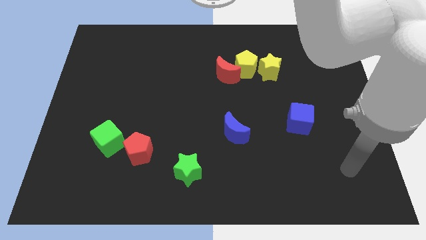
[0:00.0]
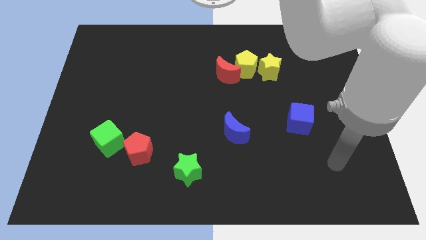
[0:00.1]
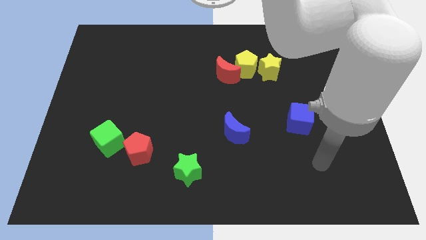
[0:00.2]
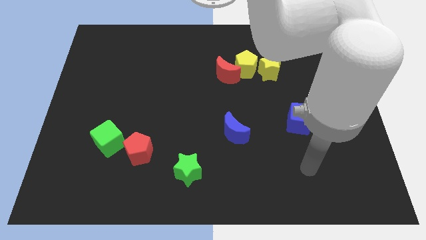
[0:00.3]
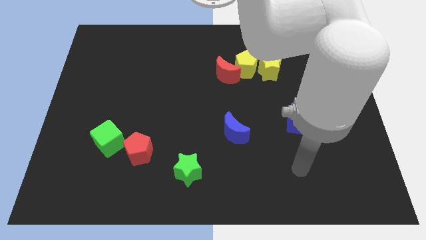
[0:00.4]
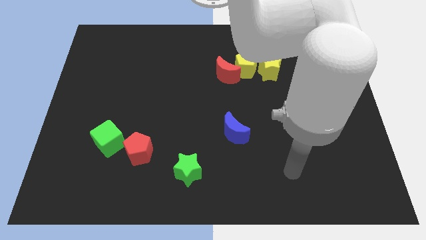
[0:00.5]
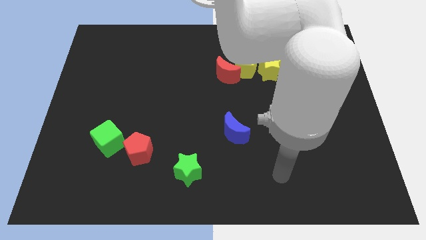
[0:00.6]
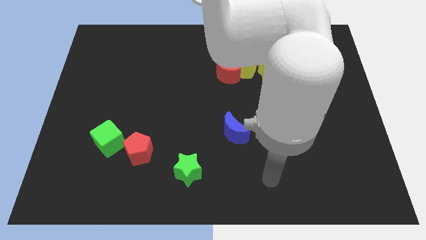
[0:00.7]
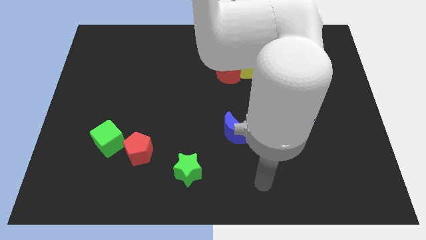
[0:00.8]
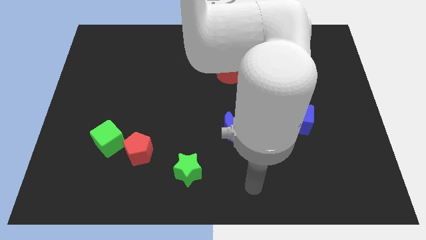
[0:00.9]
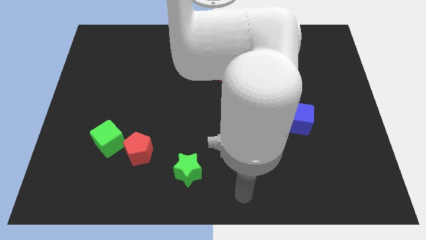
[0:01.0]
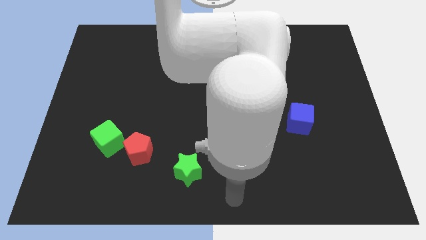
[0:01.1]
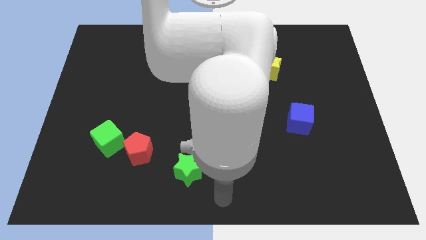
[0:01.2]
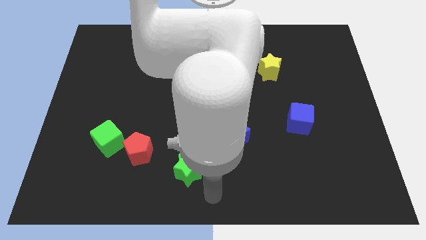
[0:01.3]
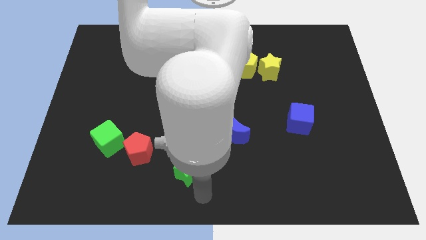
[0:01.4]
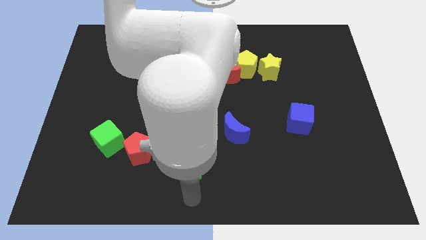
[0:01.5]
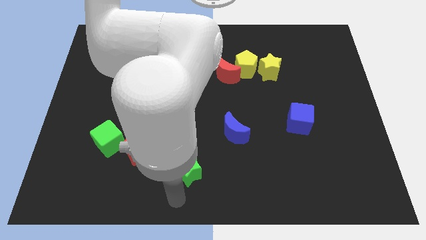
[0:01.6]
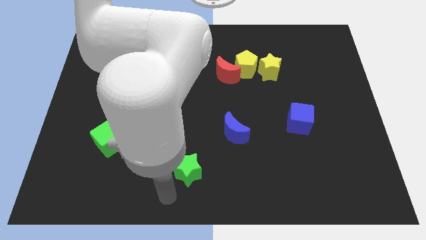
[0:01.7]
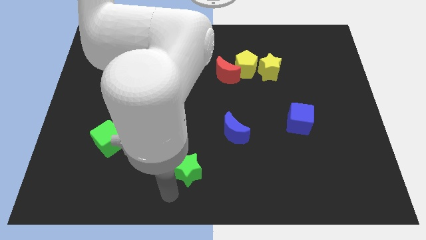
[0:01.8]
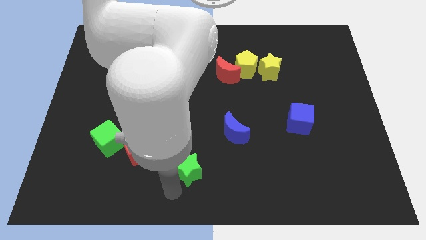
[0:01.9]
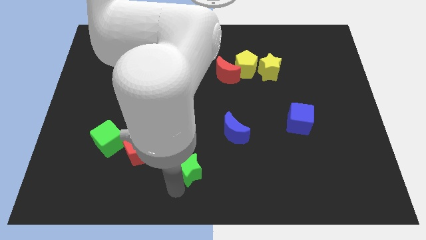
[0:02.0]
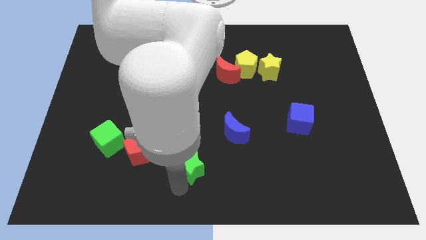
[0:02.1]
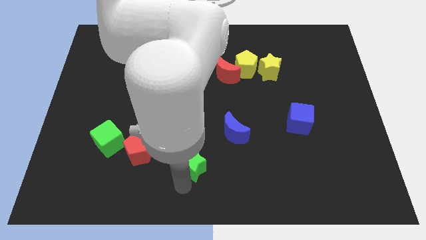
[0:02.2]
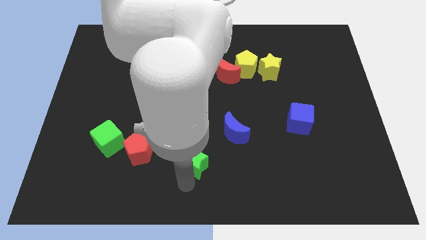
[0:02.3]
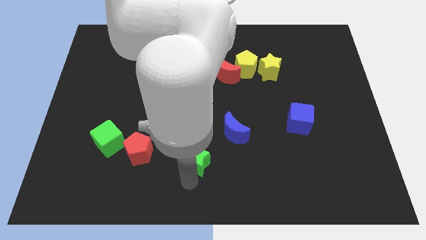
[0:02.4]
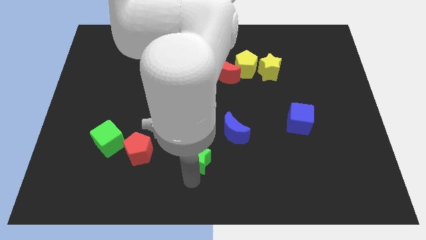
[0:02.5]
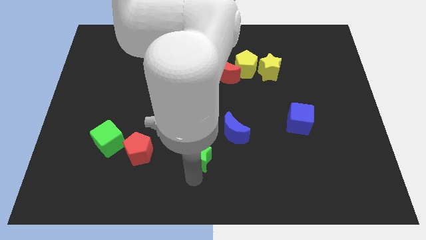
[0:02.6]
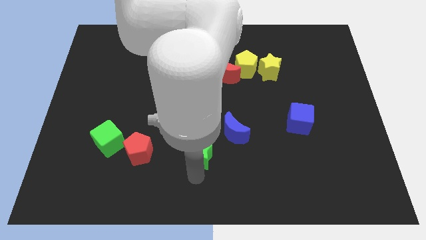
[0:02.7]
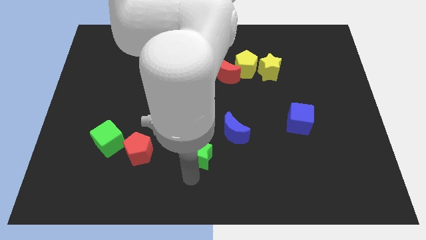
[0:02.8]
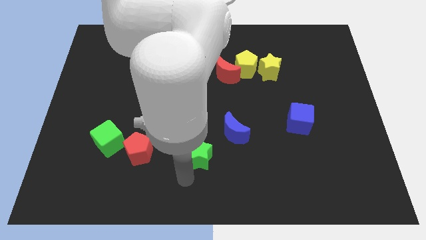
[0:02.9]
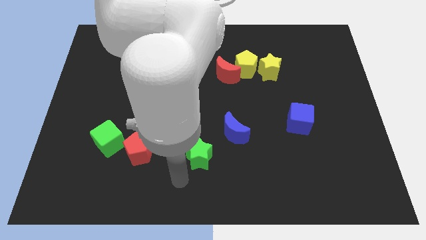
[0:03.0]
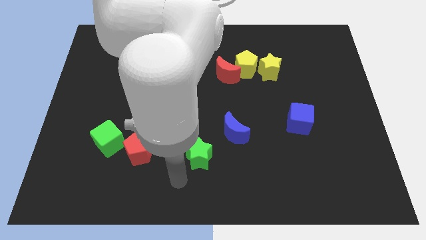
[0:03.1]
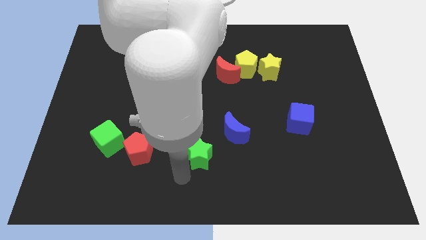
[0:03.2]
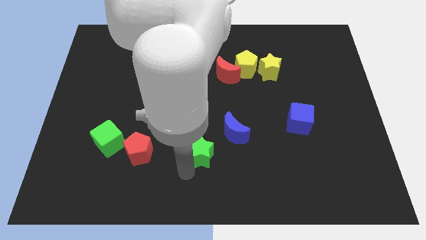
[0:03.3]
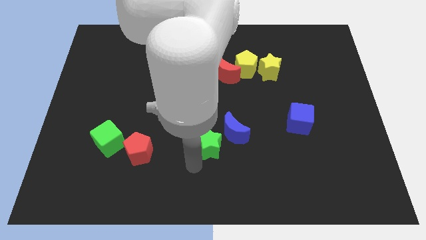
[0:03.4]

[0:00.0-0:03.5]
slightly move the green star up and to the right

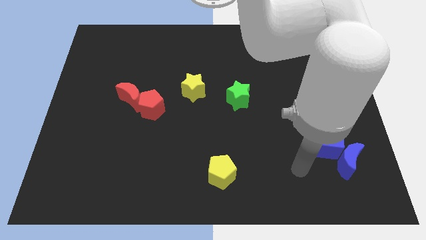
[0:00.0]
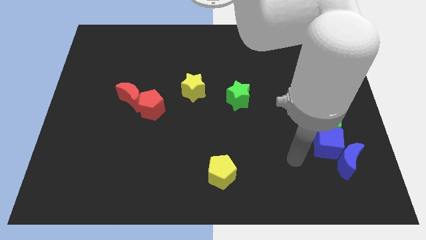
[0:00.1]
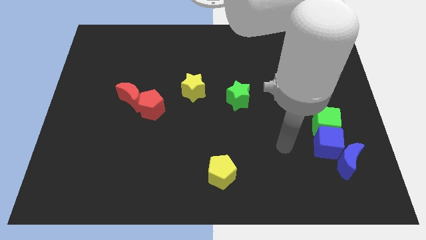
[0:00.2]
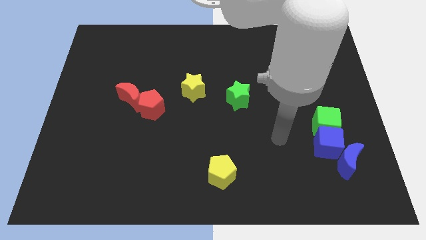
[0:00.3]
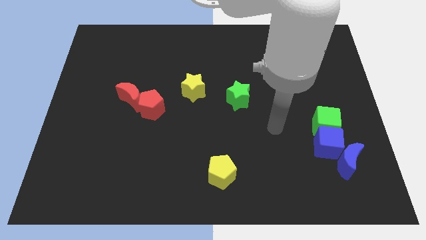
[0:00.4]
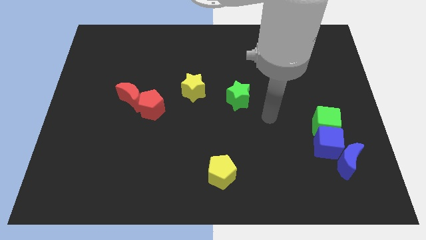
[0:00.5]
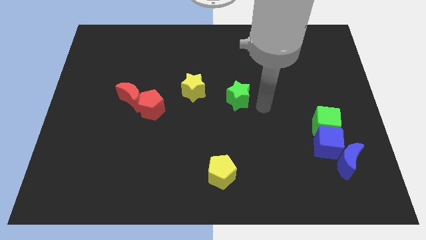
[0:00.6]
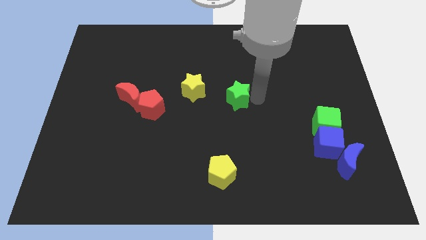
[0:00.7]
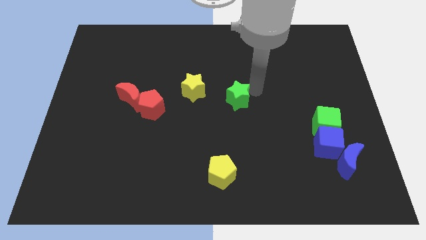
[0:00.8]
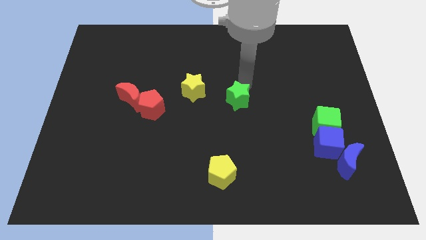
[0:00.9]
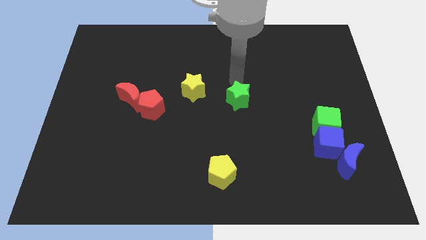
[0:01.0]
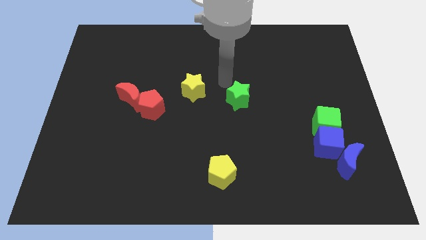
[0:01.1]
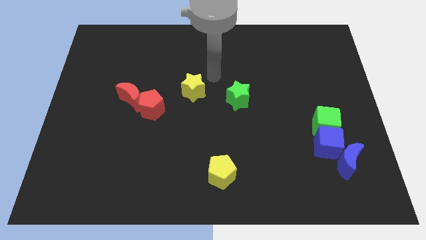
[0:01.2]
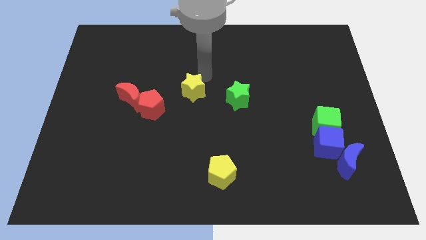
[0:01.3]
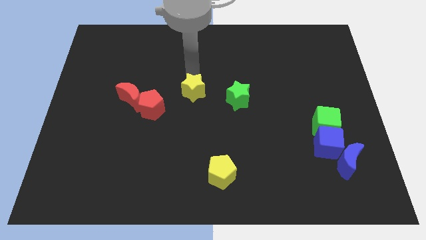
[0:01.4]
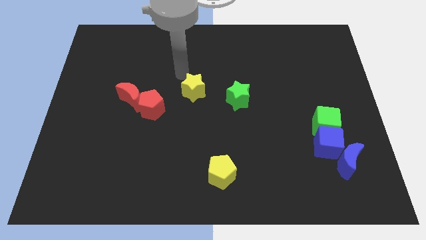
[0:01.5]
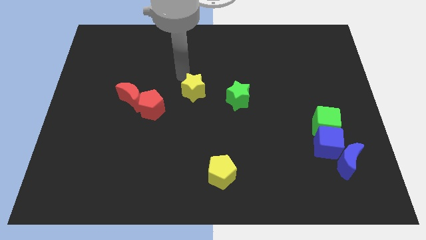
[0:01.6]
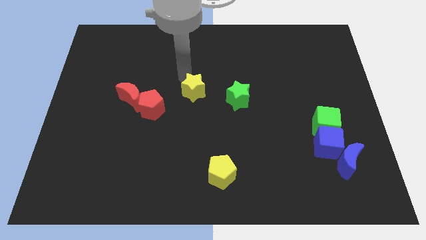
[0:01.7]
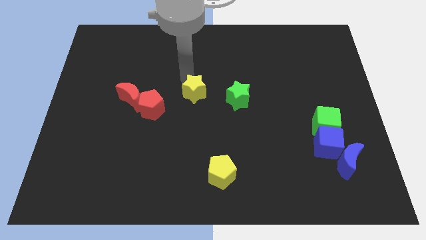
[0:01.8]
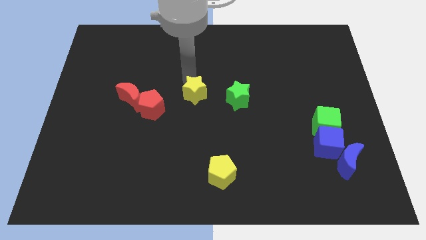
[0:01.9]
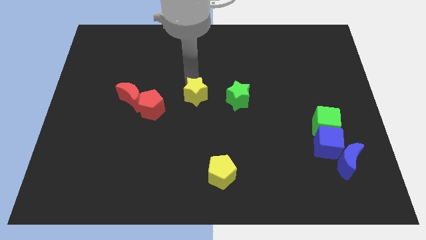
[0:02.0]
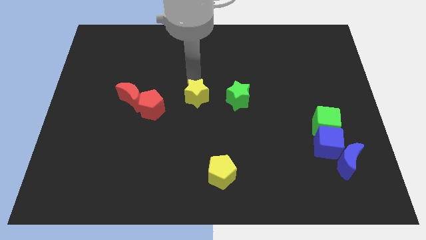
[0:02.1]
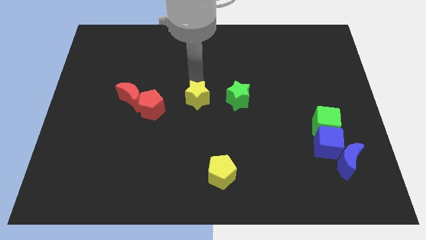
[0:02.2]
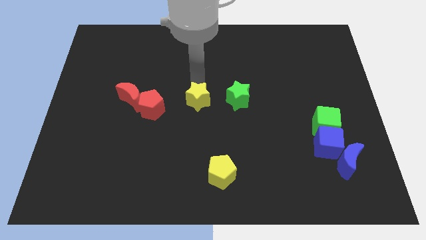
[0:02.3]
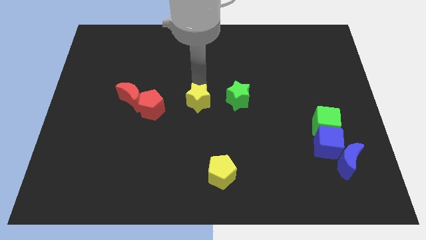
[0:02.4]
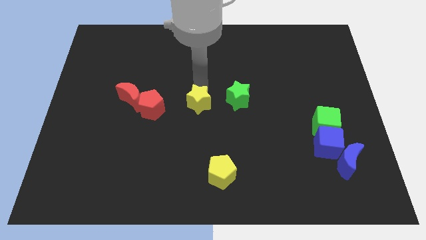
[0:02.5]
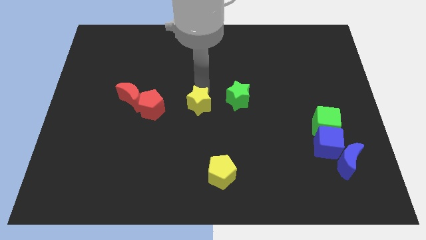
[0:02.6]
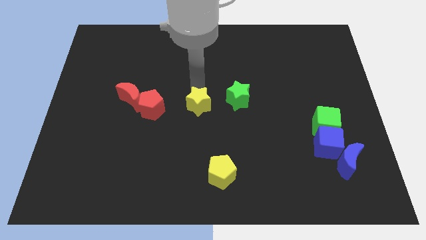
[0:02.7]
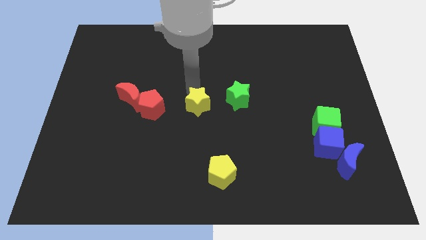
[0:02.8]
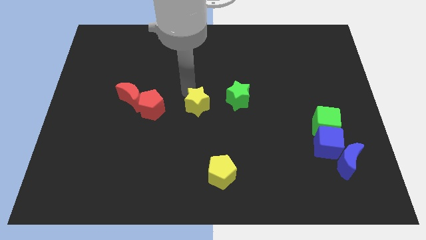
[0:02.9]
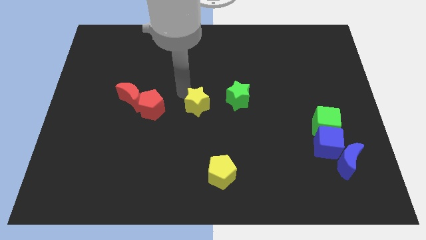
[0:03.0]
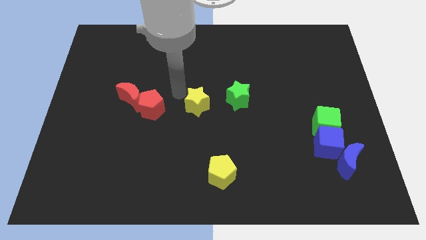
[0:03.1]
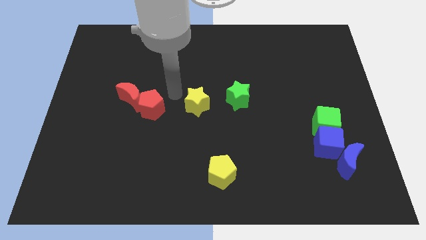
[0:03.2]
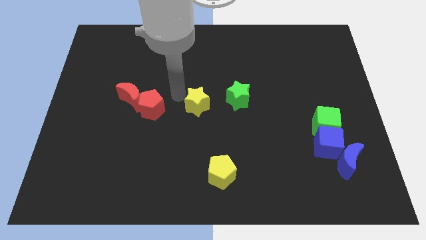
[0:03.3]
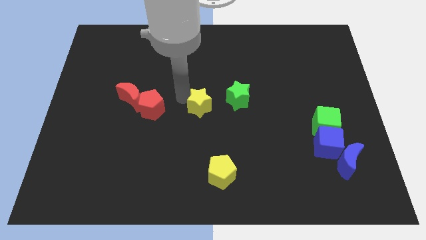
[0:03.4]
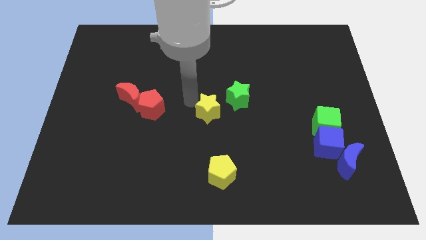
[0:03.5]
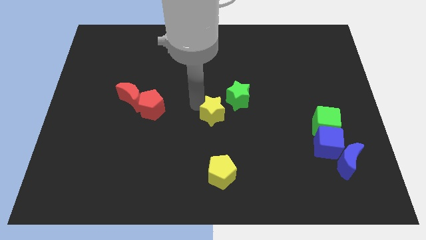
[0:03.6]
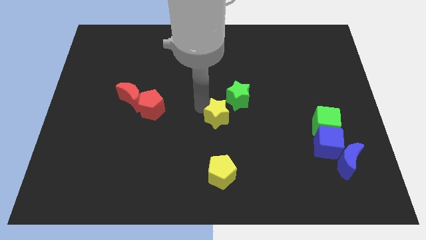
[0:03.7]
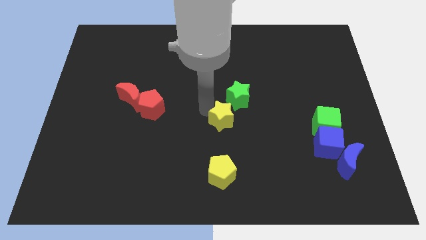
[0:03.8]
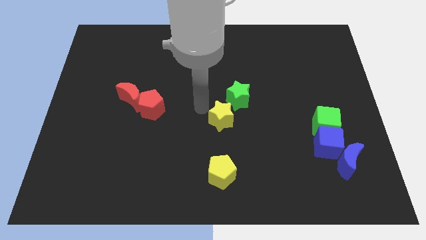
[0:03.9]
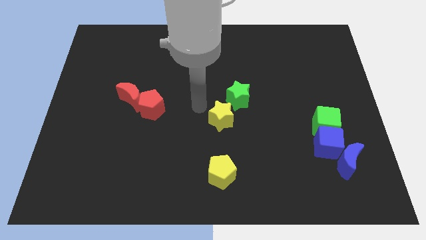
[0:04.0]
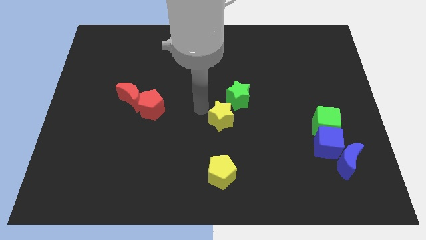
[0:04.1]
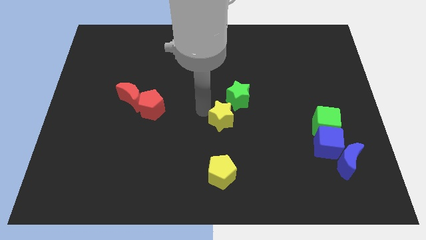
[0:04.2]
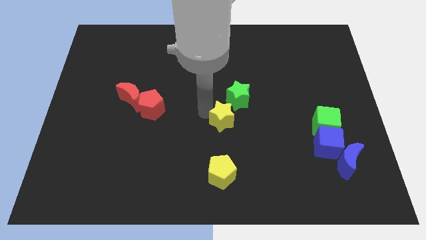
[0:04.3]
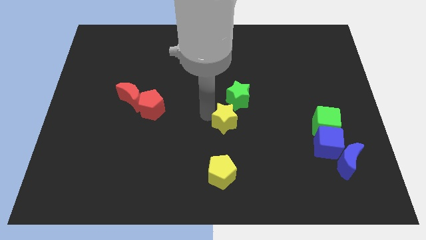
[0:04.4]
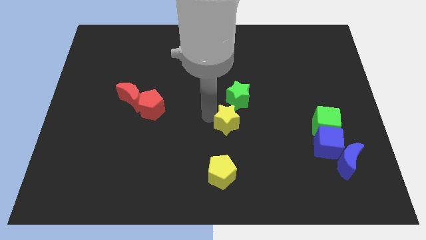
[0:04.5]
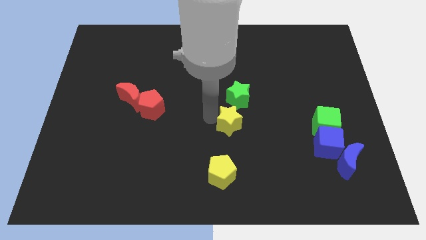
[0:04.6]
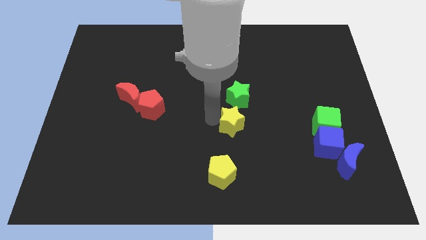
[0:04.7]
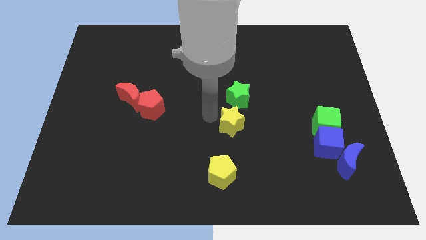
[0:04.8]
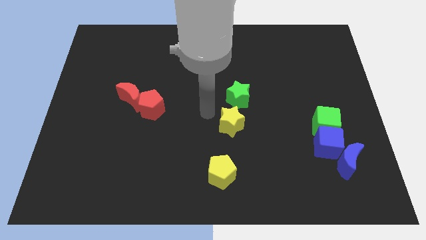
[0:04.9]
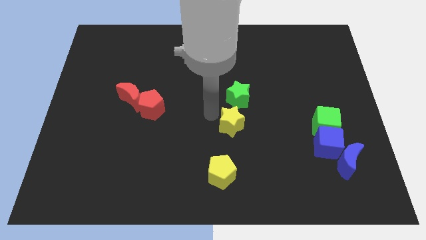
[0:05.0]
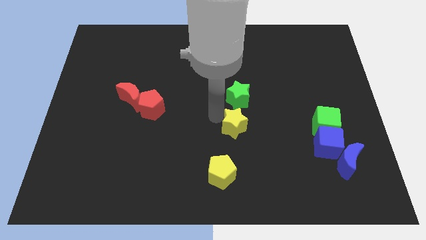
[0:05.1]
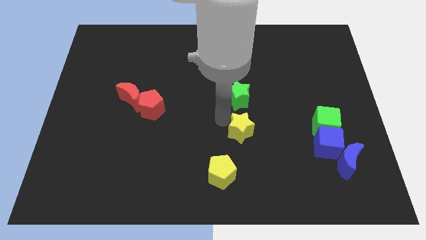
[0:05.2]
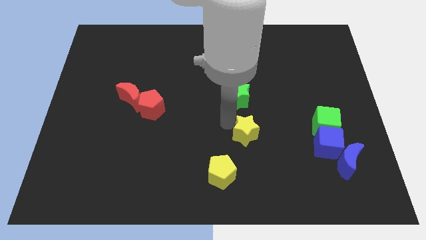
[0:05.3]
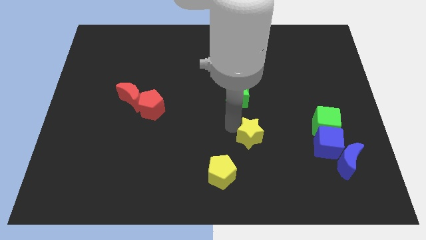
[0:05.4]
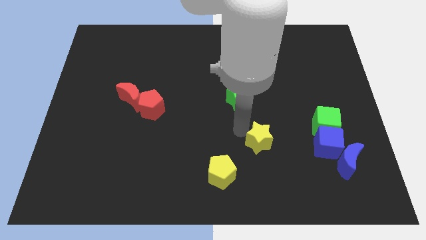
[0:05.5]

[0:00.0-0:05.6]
move the yellow star downwards and then right
